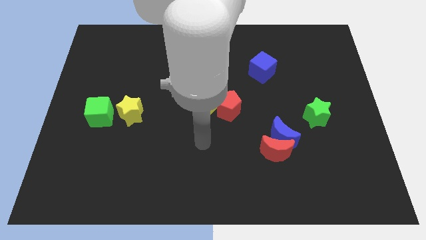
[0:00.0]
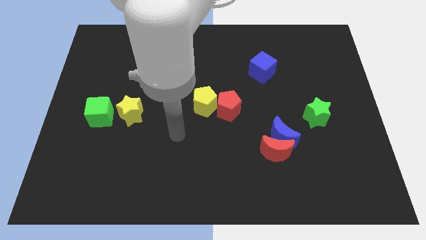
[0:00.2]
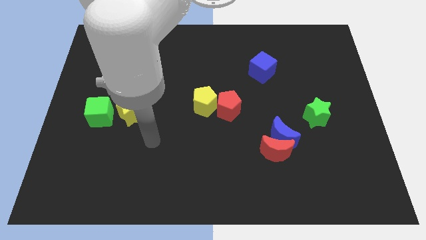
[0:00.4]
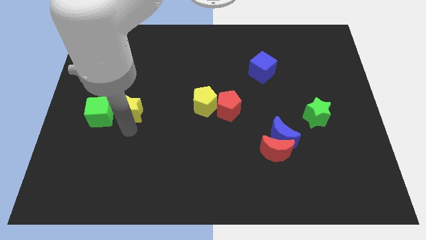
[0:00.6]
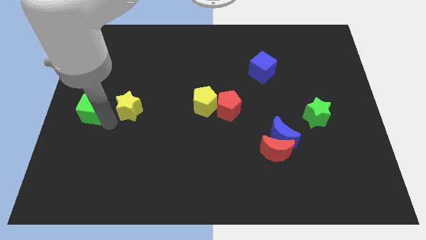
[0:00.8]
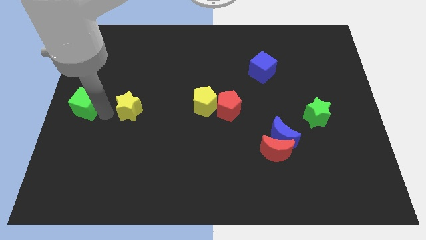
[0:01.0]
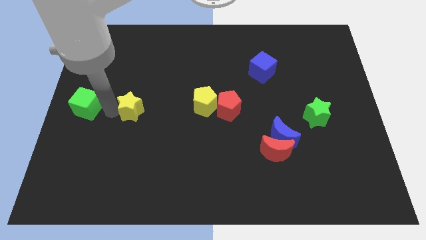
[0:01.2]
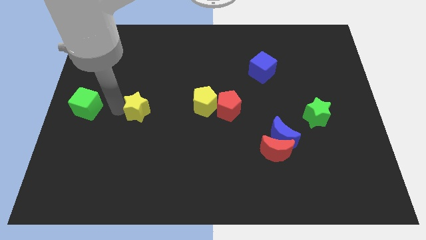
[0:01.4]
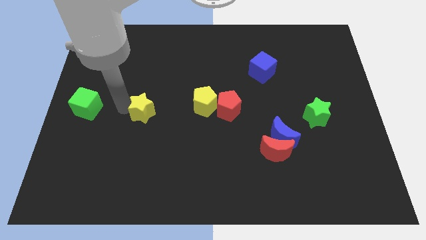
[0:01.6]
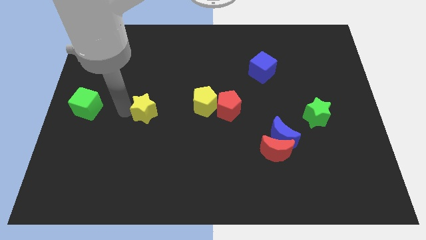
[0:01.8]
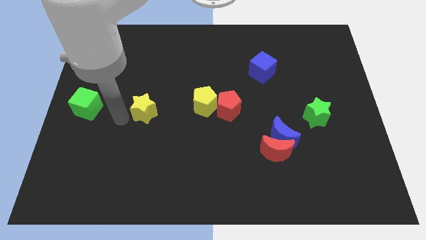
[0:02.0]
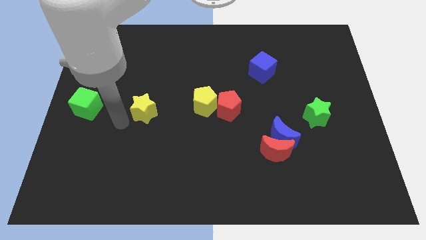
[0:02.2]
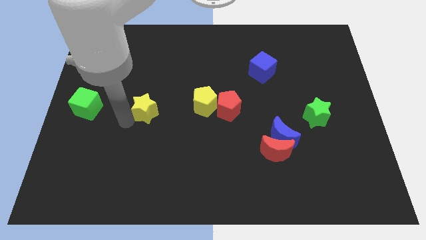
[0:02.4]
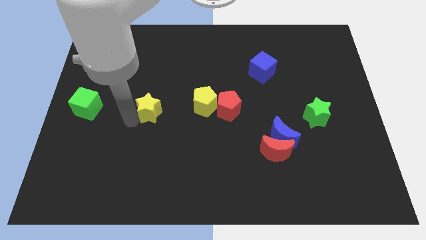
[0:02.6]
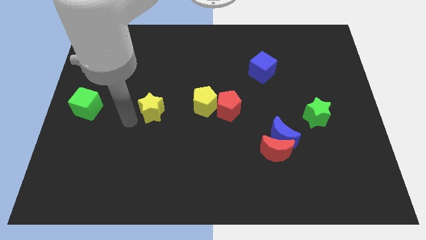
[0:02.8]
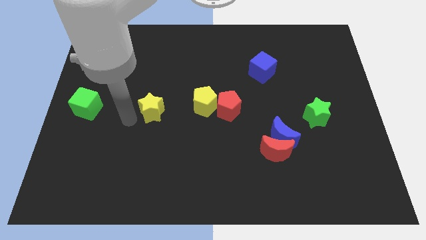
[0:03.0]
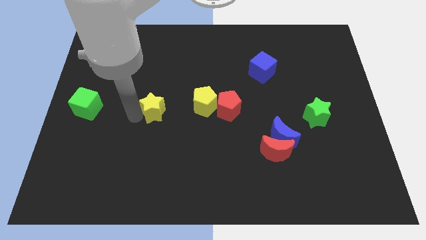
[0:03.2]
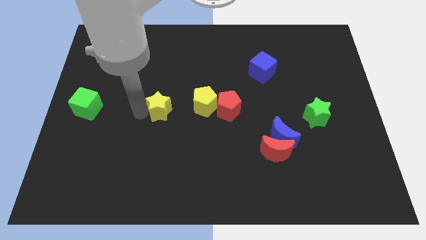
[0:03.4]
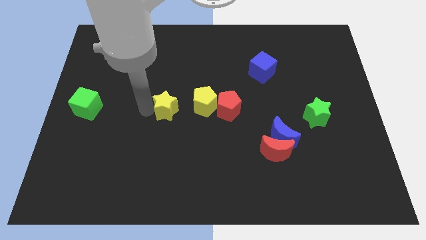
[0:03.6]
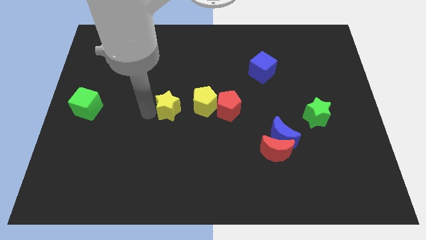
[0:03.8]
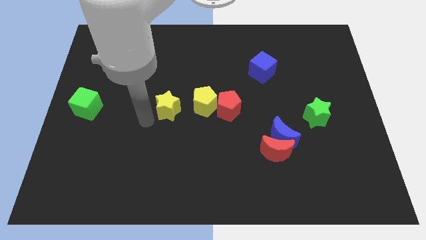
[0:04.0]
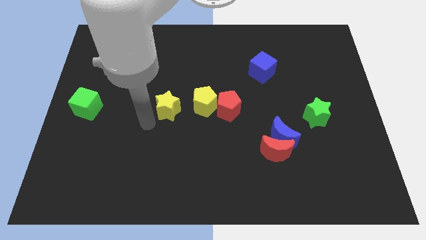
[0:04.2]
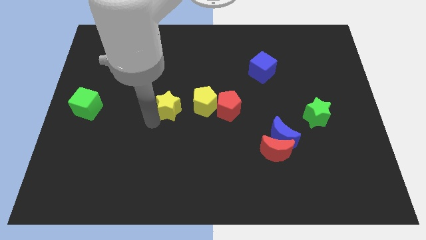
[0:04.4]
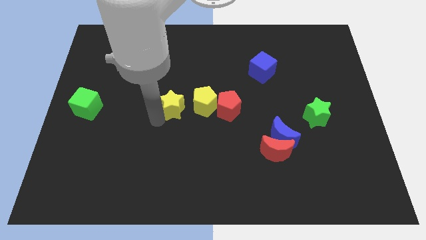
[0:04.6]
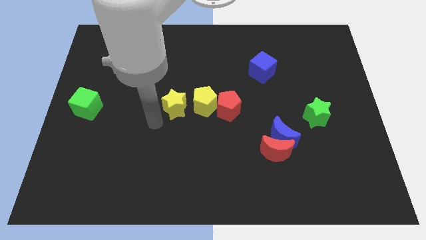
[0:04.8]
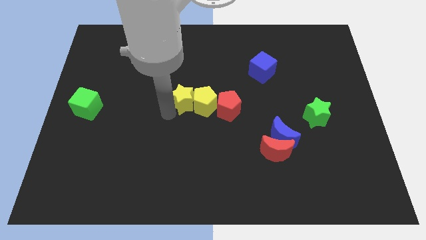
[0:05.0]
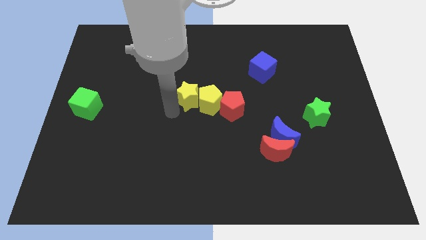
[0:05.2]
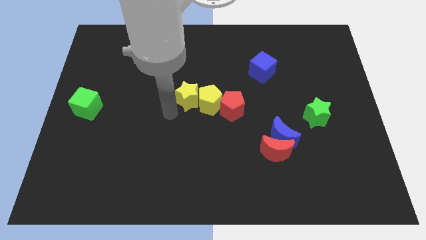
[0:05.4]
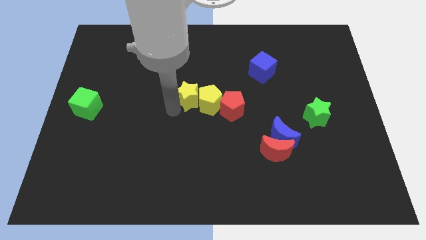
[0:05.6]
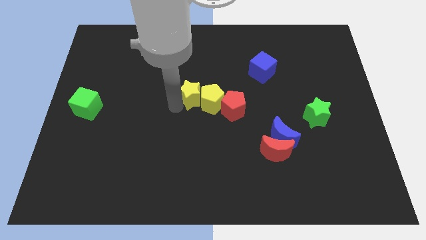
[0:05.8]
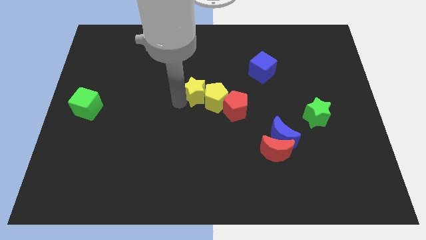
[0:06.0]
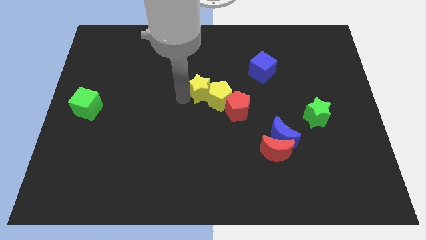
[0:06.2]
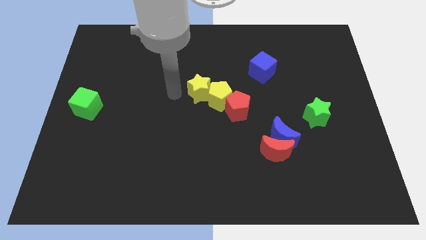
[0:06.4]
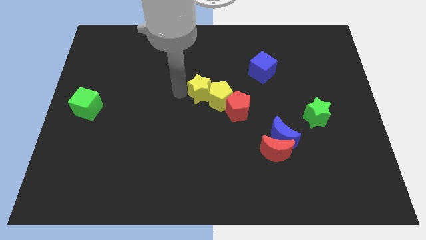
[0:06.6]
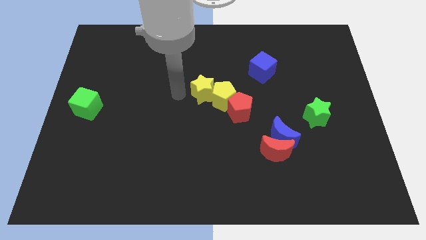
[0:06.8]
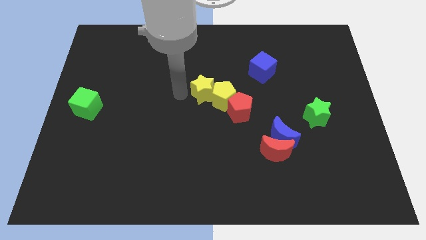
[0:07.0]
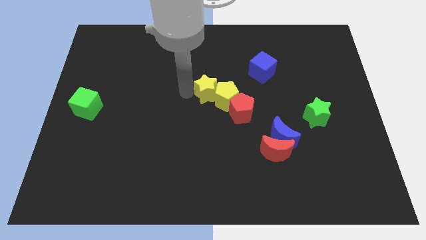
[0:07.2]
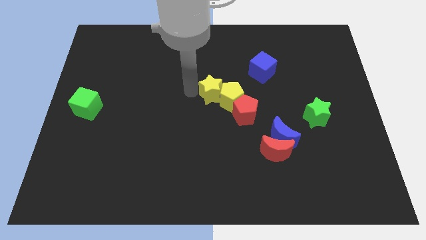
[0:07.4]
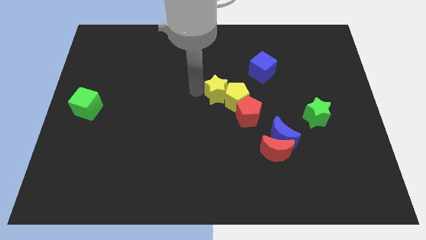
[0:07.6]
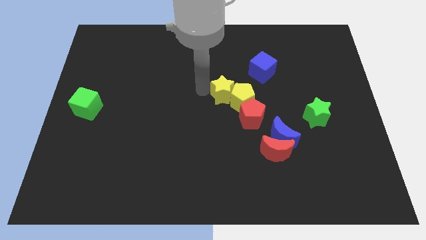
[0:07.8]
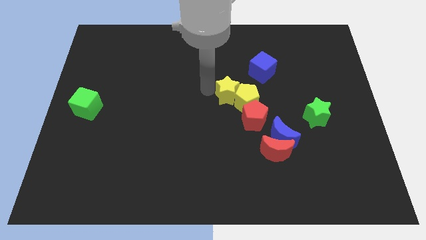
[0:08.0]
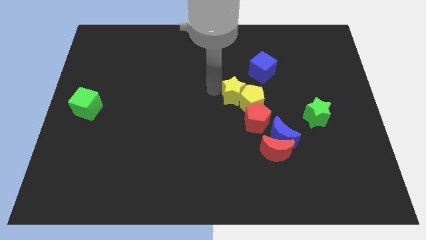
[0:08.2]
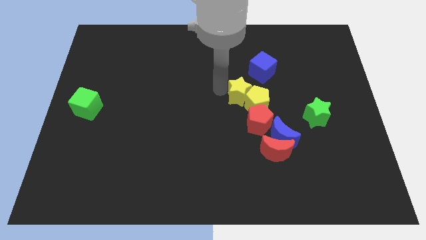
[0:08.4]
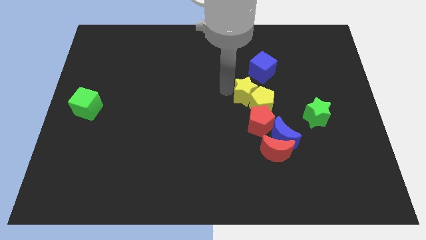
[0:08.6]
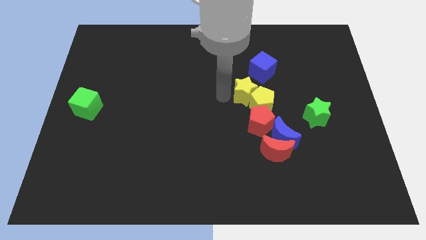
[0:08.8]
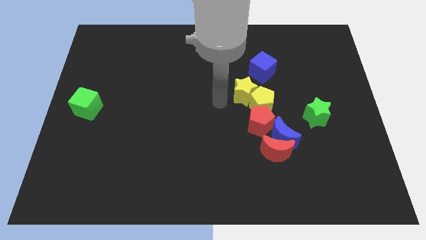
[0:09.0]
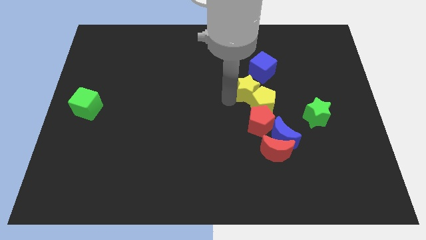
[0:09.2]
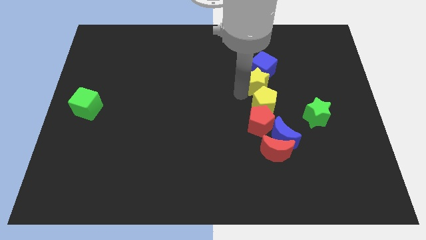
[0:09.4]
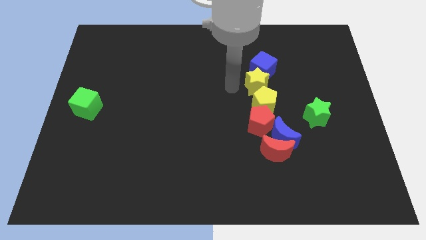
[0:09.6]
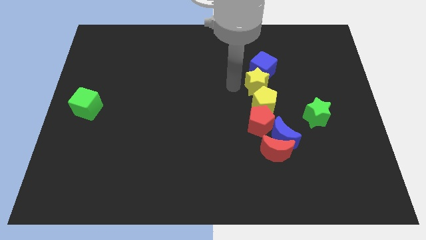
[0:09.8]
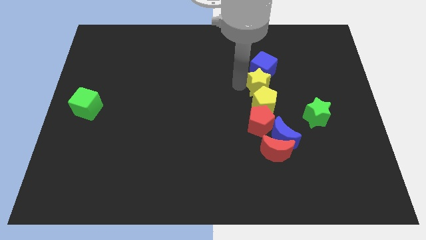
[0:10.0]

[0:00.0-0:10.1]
put the yellow star diagonally down and to the right of the blue cube

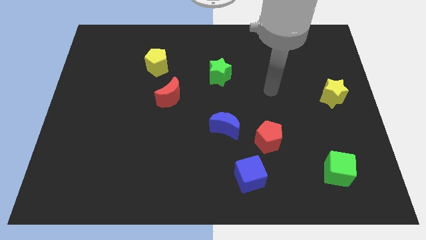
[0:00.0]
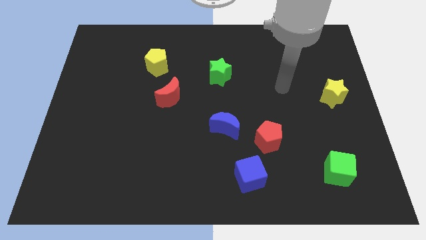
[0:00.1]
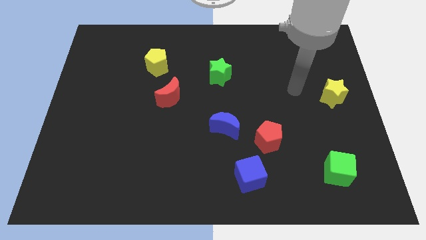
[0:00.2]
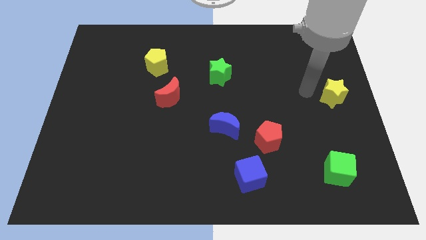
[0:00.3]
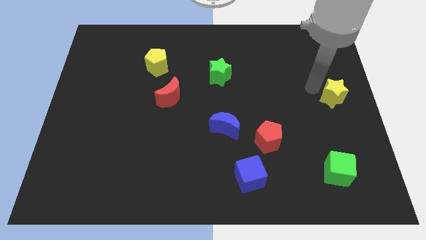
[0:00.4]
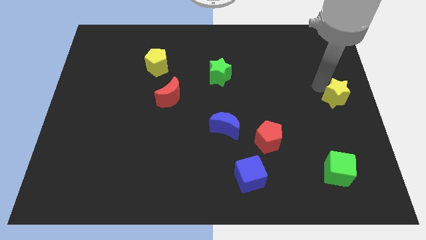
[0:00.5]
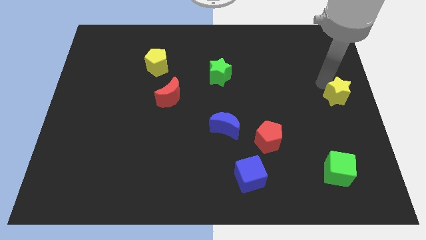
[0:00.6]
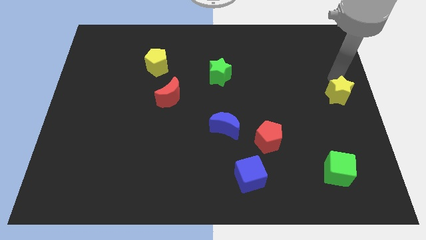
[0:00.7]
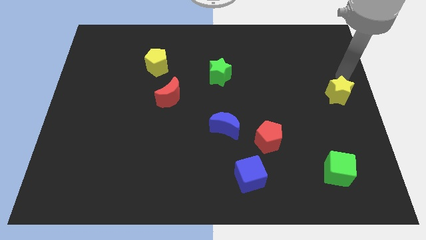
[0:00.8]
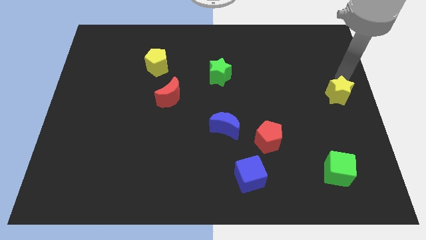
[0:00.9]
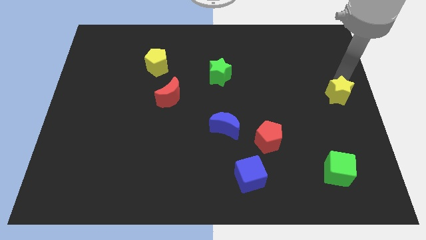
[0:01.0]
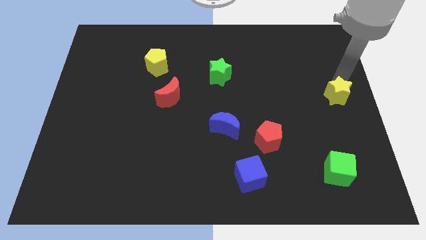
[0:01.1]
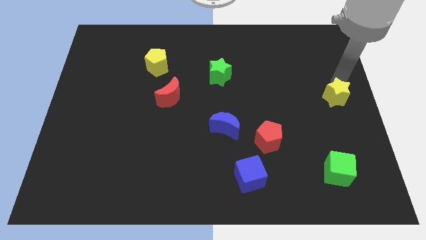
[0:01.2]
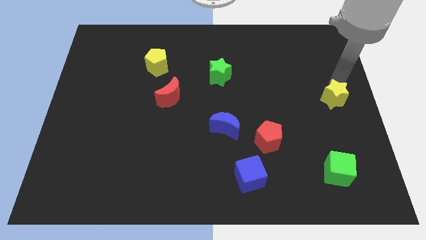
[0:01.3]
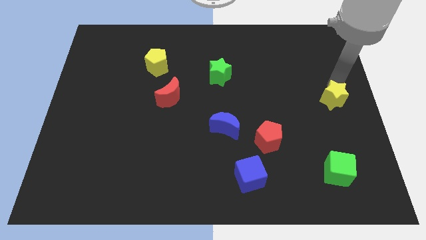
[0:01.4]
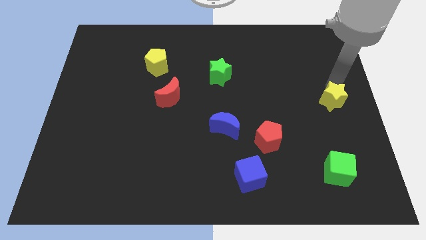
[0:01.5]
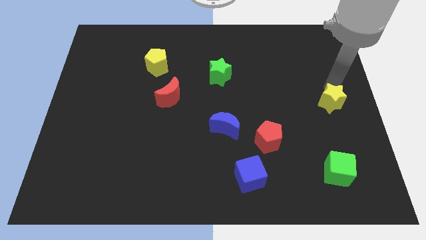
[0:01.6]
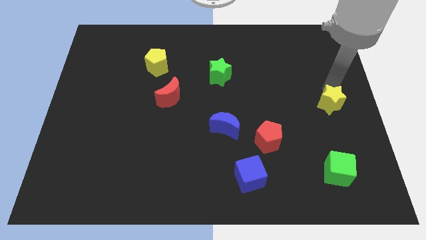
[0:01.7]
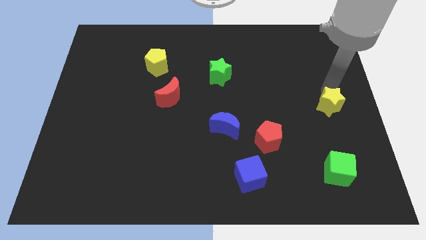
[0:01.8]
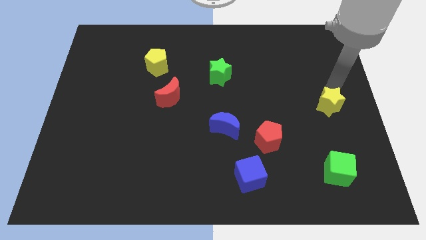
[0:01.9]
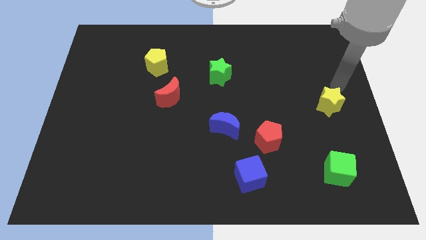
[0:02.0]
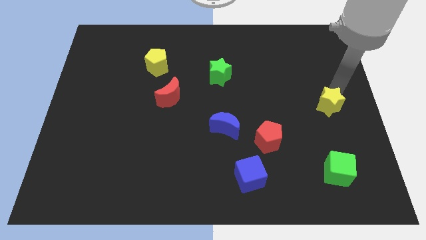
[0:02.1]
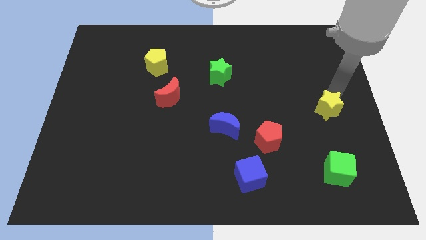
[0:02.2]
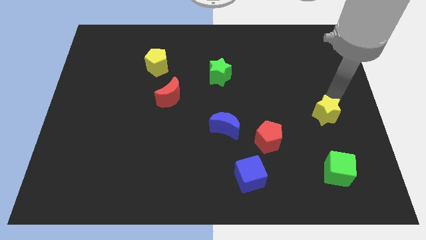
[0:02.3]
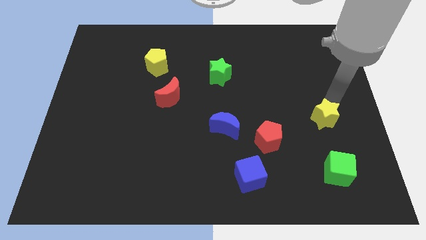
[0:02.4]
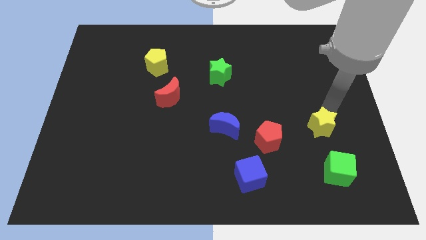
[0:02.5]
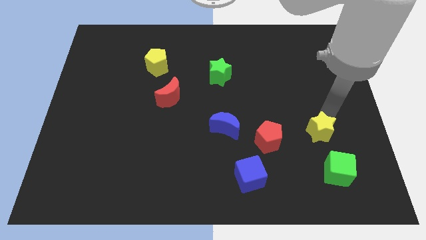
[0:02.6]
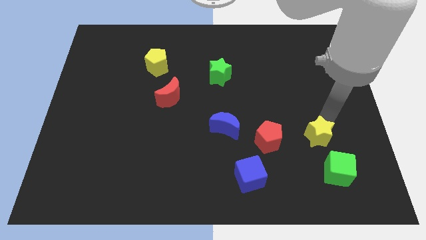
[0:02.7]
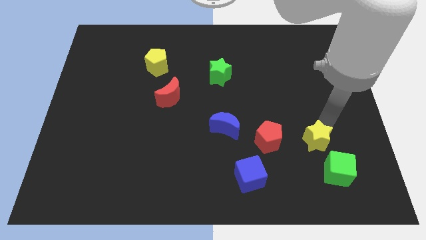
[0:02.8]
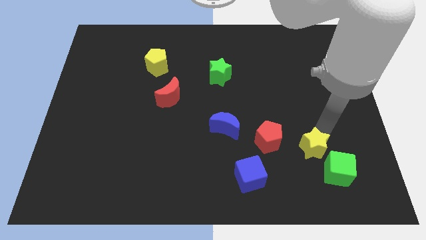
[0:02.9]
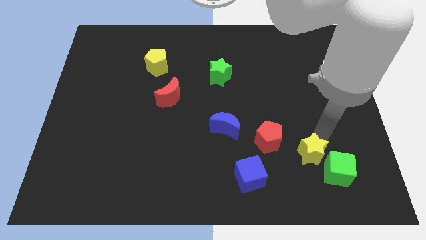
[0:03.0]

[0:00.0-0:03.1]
move the yellow star diagonally down and to the right of the red pentagon

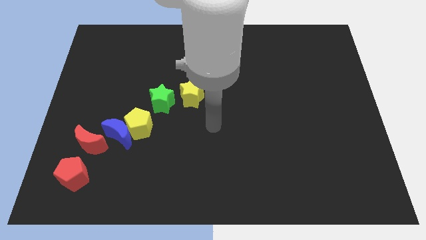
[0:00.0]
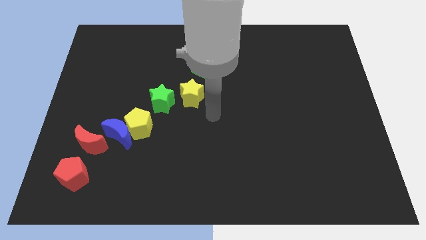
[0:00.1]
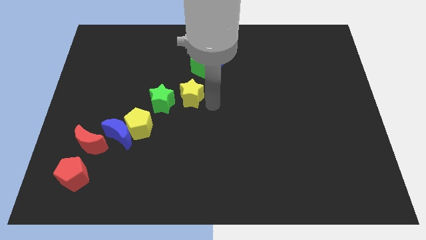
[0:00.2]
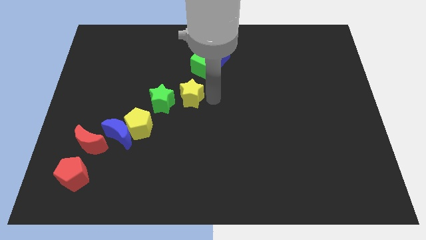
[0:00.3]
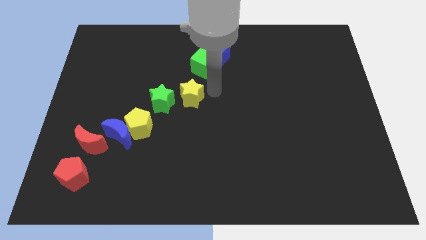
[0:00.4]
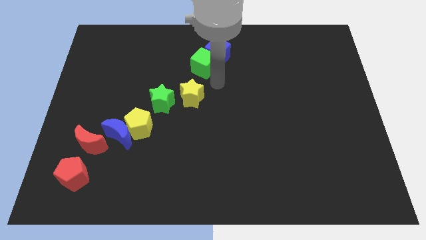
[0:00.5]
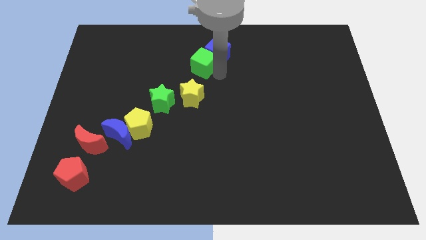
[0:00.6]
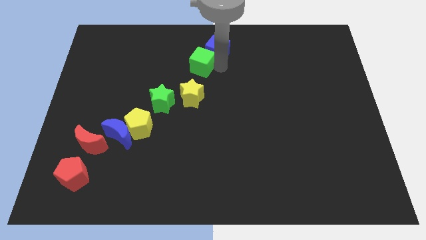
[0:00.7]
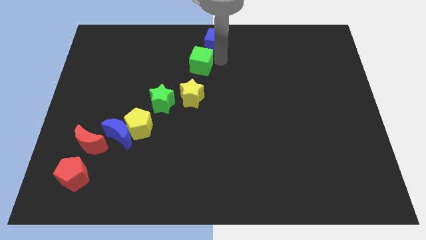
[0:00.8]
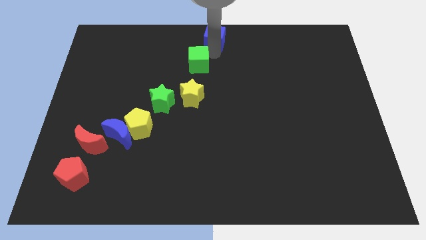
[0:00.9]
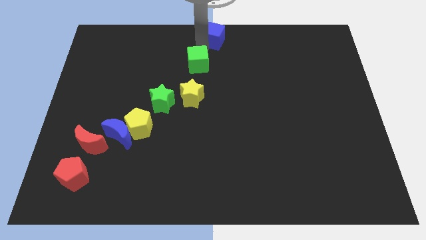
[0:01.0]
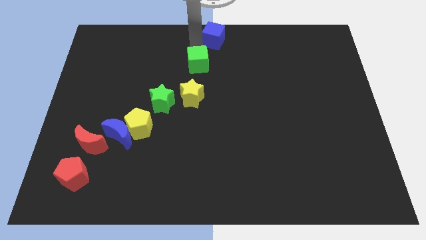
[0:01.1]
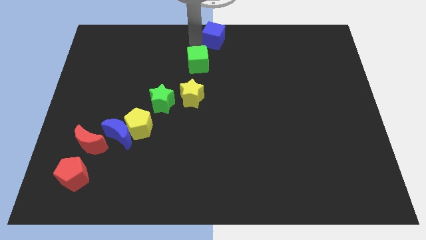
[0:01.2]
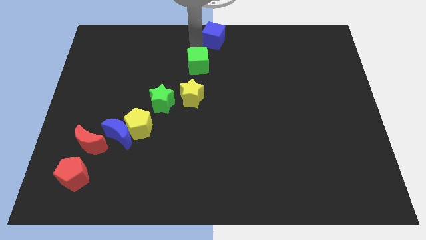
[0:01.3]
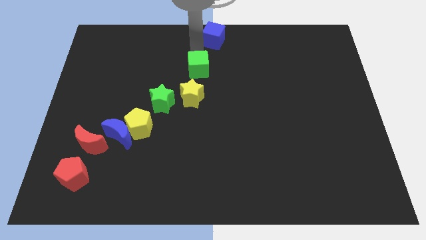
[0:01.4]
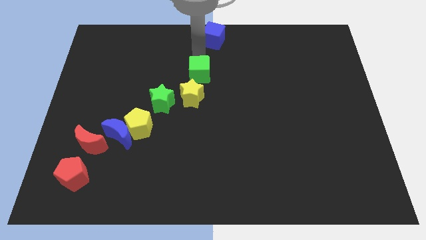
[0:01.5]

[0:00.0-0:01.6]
slide the green cube to the top right of the green star
